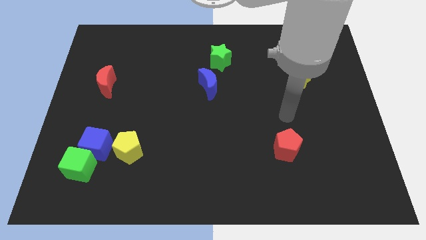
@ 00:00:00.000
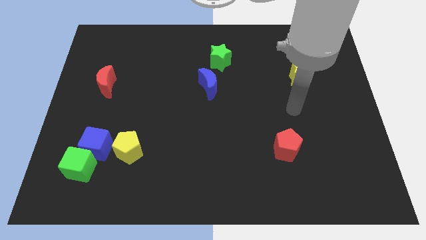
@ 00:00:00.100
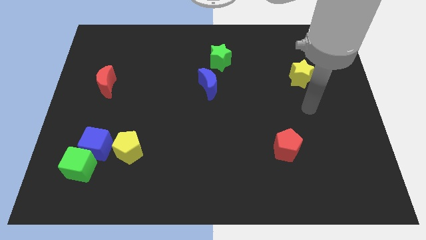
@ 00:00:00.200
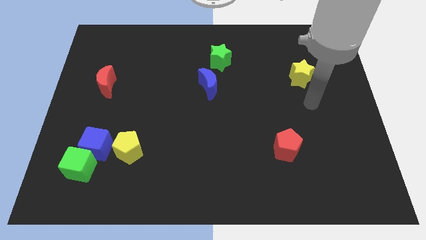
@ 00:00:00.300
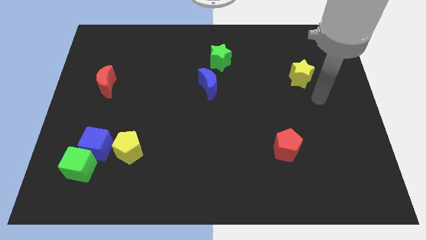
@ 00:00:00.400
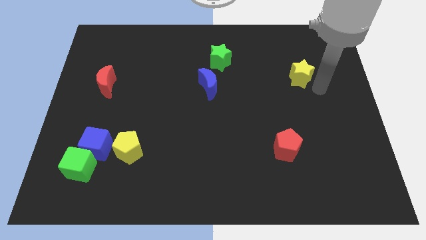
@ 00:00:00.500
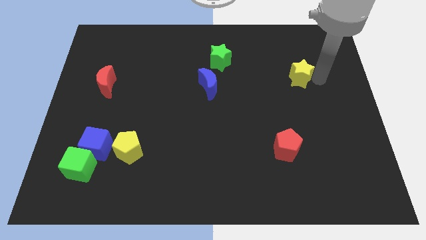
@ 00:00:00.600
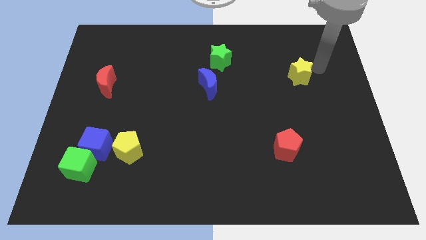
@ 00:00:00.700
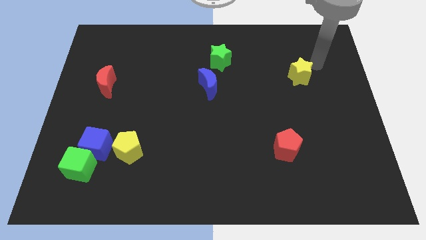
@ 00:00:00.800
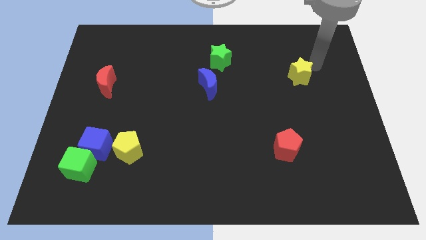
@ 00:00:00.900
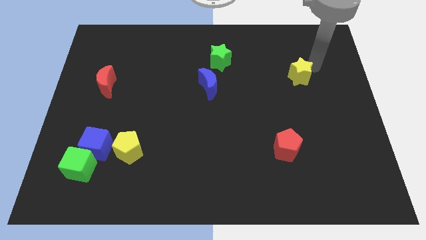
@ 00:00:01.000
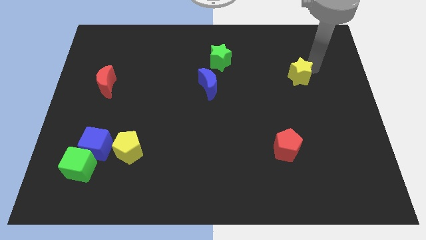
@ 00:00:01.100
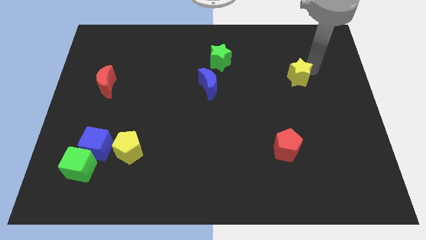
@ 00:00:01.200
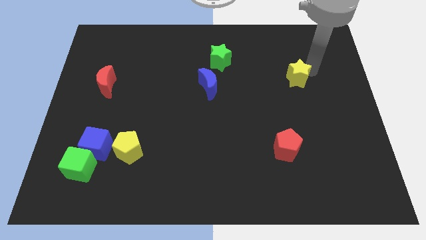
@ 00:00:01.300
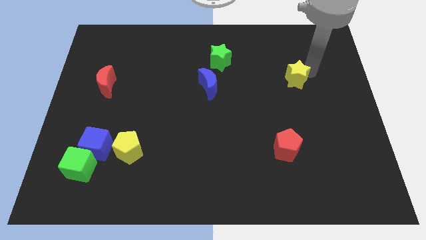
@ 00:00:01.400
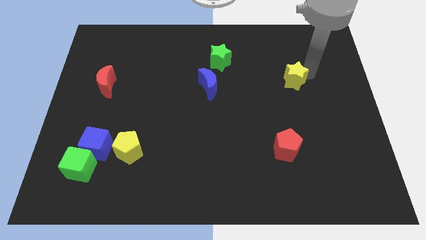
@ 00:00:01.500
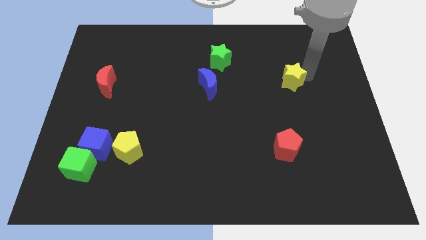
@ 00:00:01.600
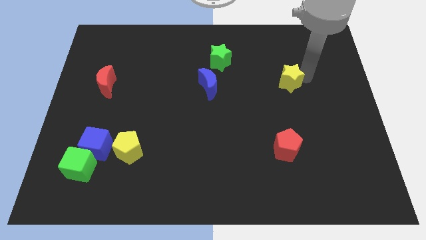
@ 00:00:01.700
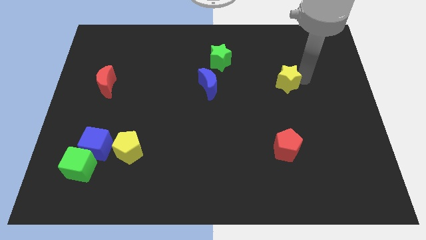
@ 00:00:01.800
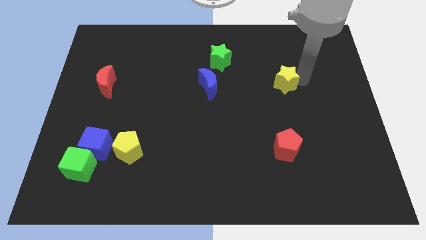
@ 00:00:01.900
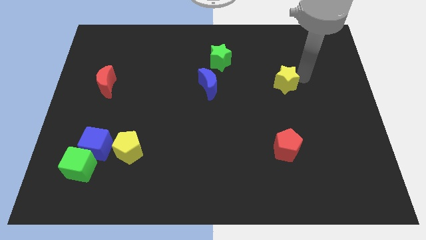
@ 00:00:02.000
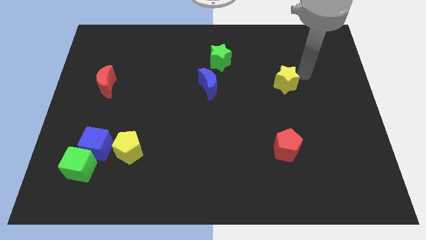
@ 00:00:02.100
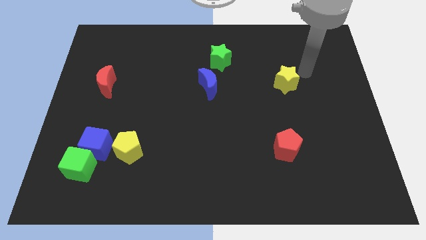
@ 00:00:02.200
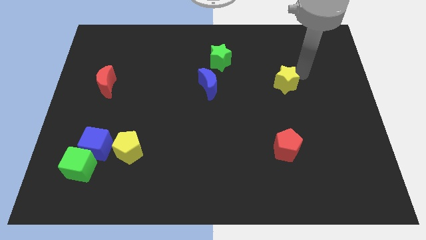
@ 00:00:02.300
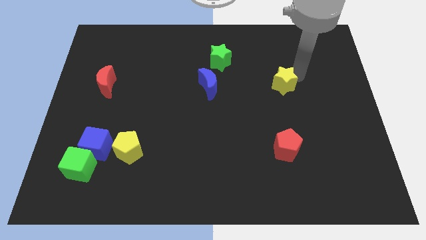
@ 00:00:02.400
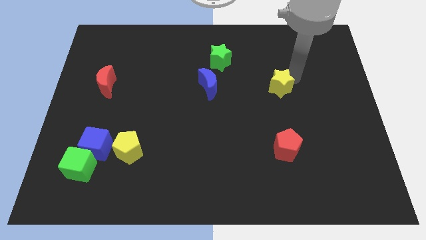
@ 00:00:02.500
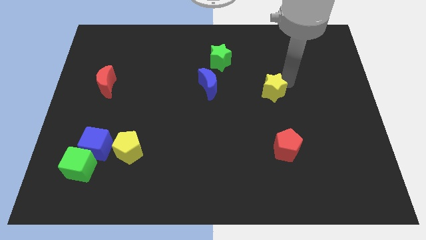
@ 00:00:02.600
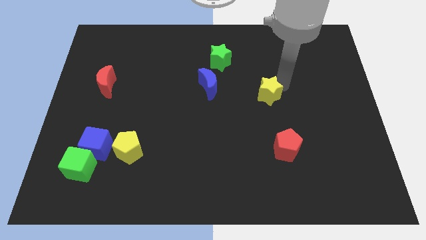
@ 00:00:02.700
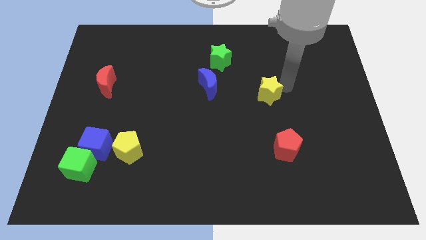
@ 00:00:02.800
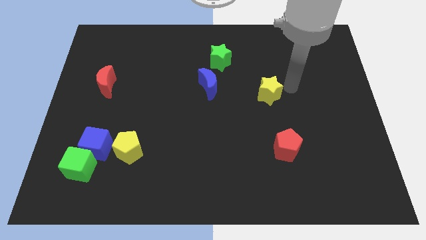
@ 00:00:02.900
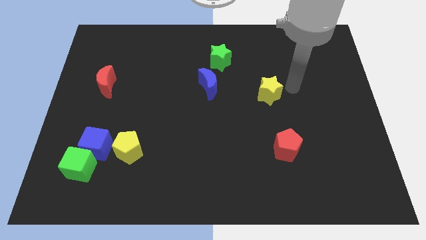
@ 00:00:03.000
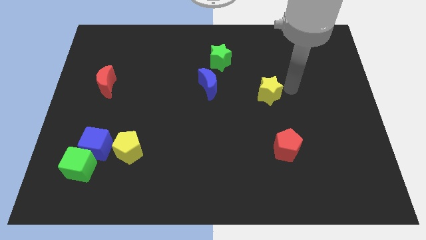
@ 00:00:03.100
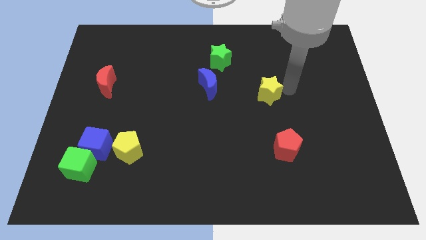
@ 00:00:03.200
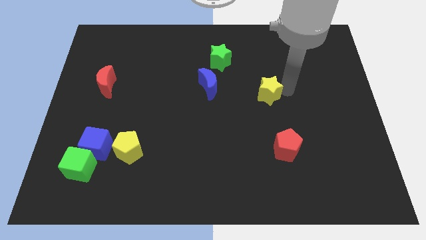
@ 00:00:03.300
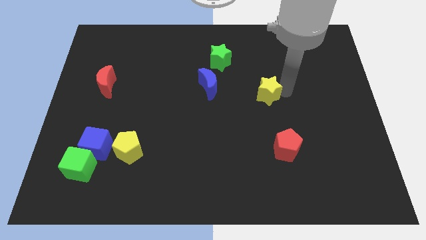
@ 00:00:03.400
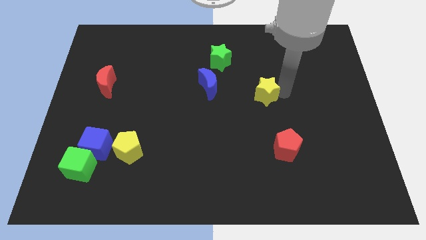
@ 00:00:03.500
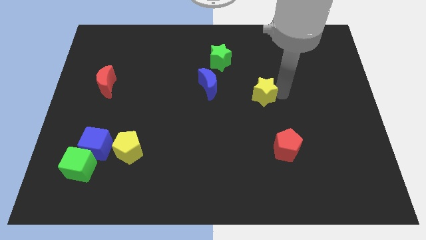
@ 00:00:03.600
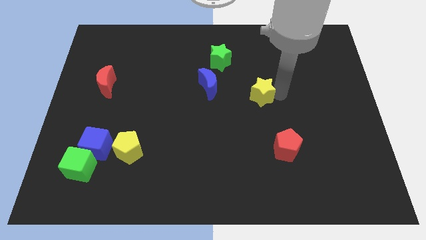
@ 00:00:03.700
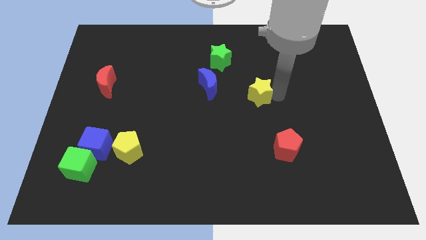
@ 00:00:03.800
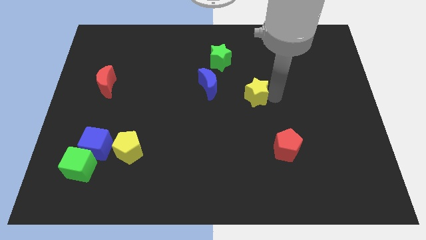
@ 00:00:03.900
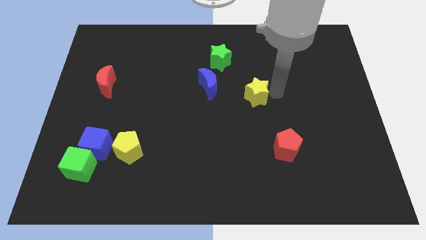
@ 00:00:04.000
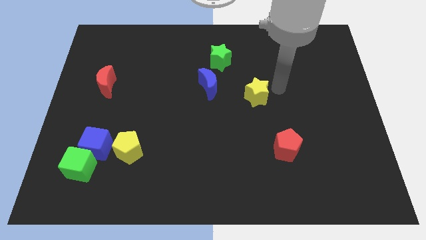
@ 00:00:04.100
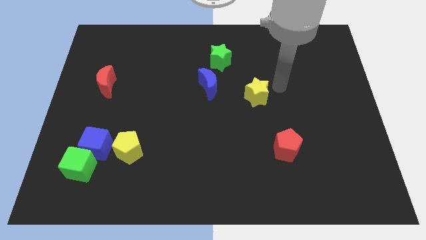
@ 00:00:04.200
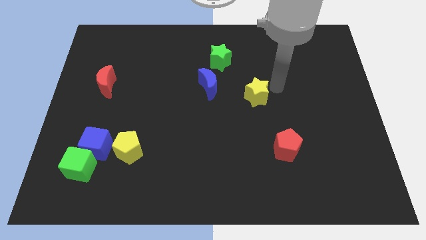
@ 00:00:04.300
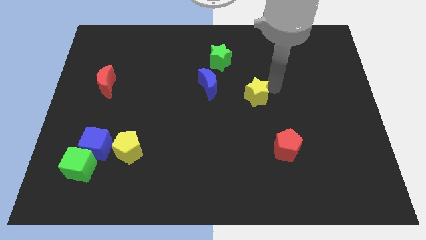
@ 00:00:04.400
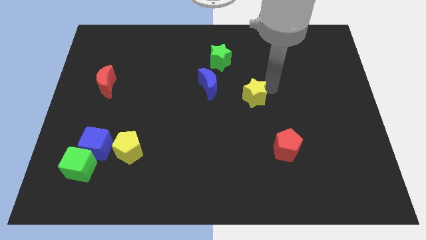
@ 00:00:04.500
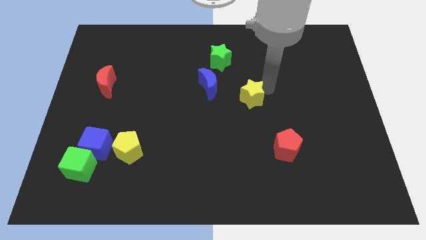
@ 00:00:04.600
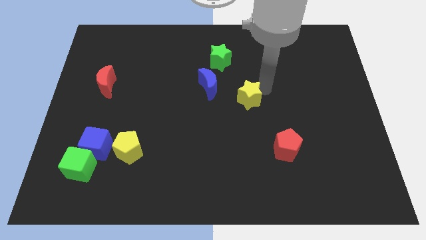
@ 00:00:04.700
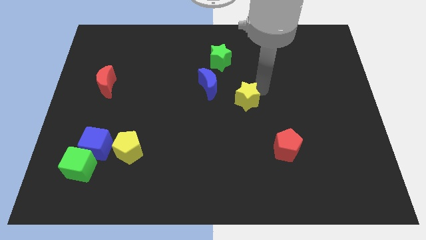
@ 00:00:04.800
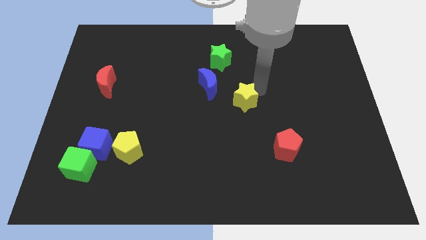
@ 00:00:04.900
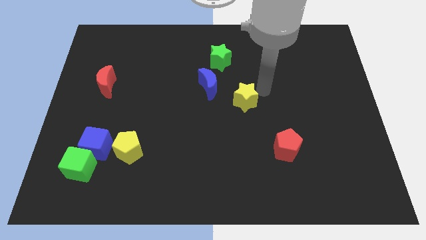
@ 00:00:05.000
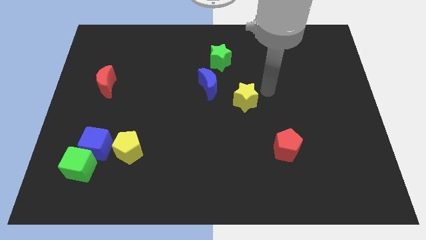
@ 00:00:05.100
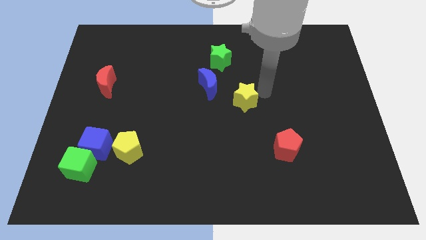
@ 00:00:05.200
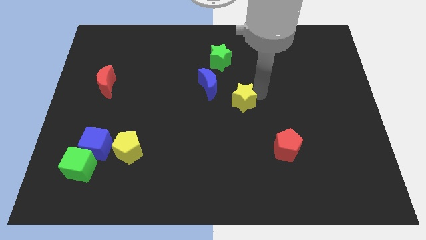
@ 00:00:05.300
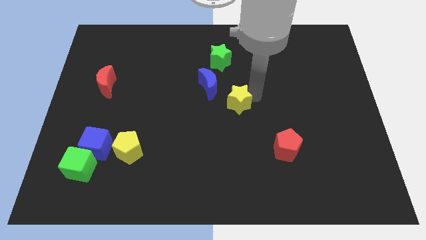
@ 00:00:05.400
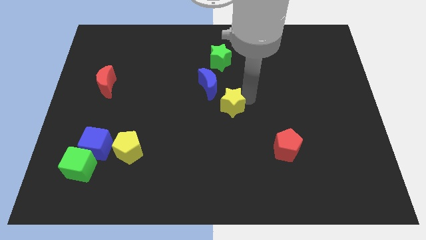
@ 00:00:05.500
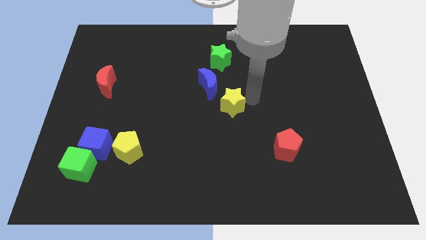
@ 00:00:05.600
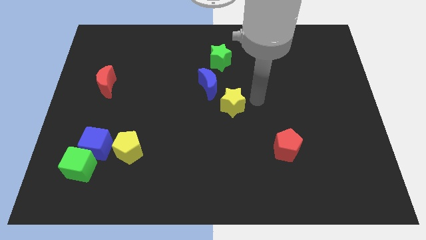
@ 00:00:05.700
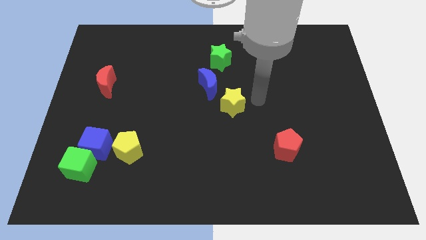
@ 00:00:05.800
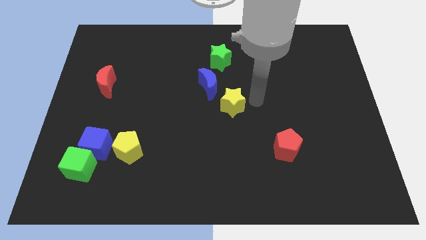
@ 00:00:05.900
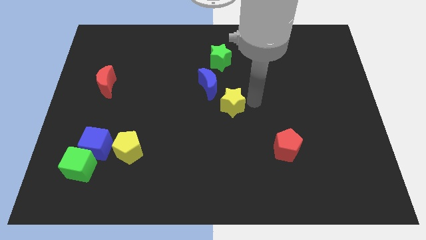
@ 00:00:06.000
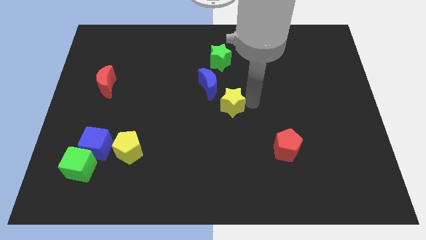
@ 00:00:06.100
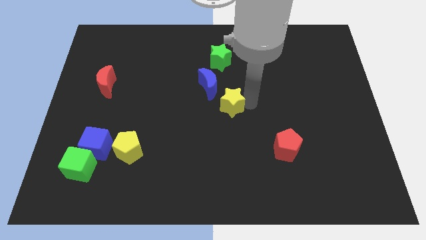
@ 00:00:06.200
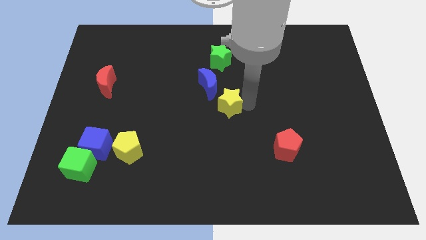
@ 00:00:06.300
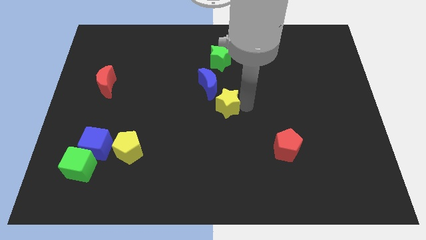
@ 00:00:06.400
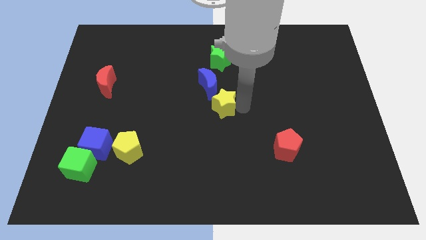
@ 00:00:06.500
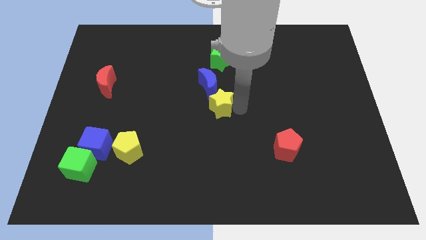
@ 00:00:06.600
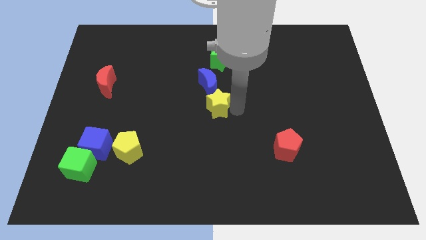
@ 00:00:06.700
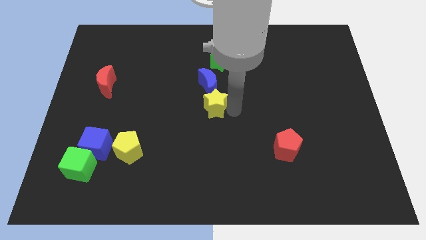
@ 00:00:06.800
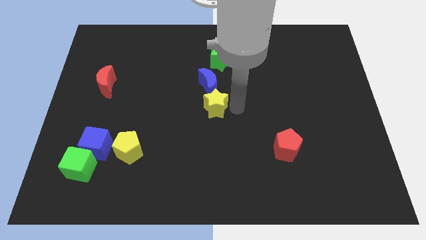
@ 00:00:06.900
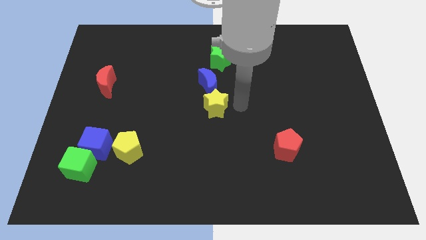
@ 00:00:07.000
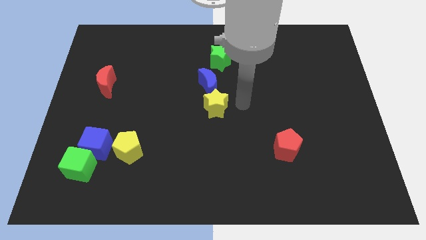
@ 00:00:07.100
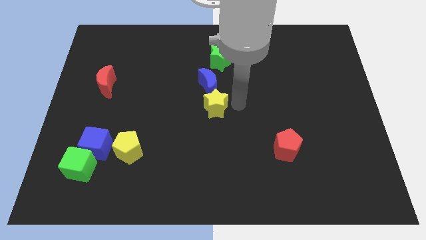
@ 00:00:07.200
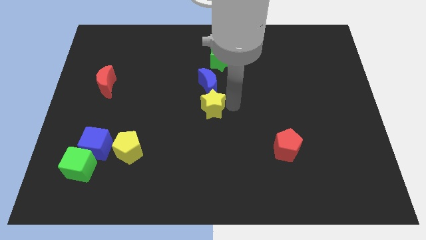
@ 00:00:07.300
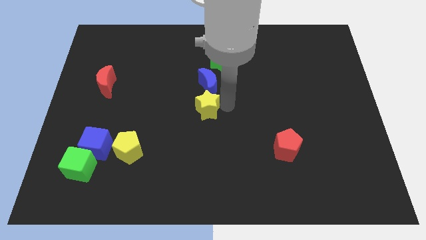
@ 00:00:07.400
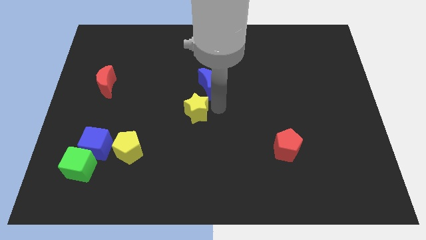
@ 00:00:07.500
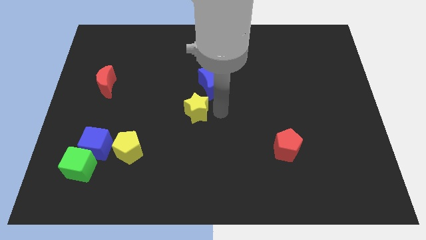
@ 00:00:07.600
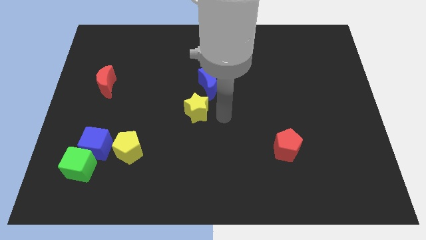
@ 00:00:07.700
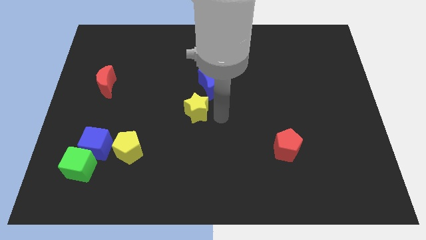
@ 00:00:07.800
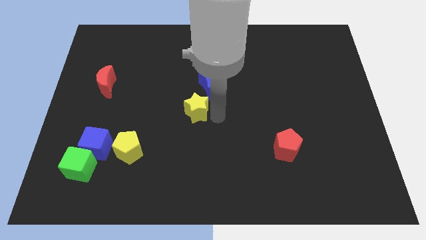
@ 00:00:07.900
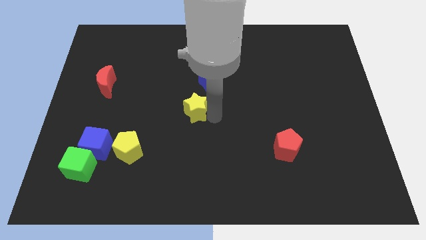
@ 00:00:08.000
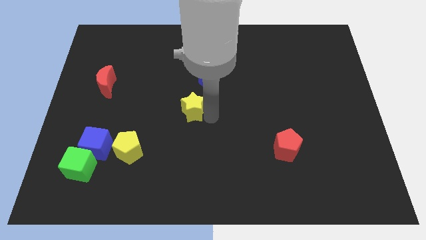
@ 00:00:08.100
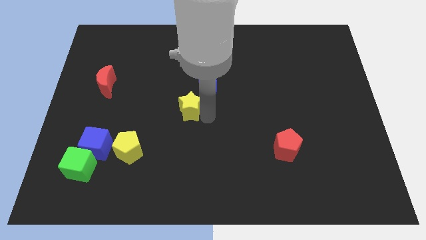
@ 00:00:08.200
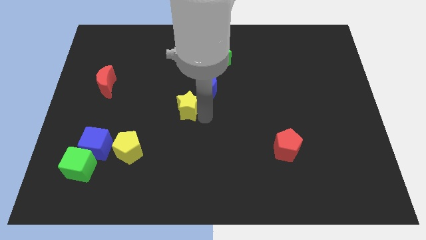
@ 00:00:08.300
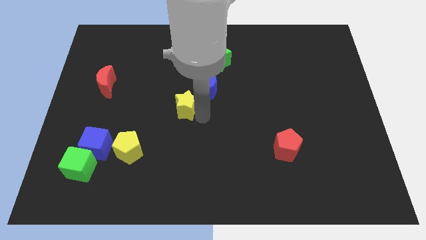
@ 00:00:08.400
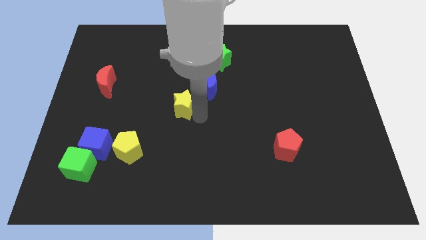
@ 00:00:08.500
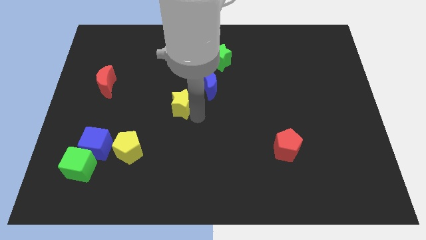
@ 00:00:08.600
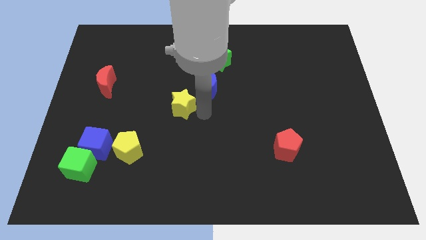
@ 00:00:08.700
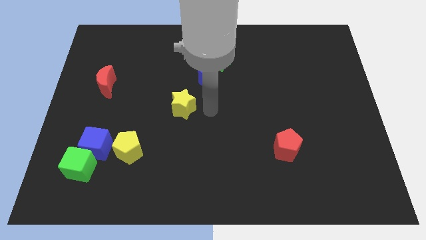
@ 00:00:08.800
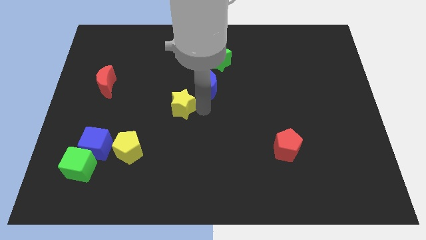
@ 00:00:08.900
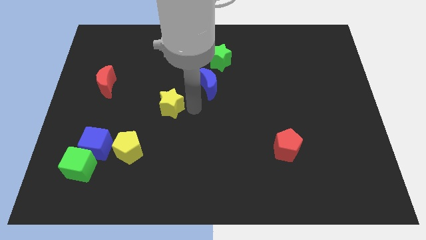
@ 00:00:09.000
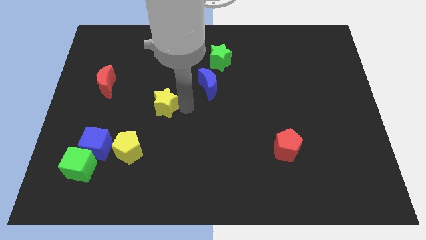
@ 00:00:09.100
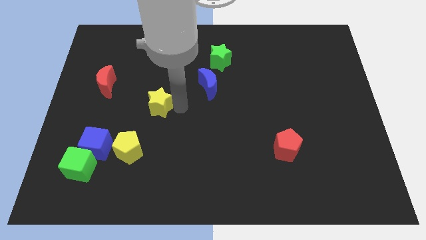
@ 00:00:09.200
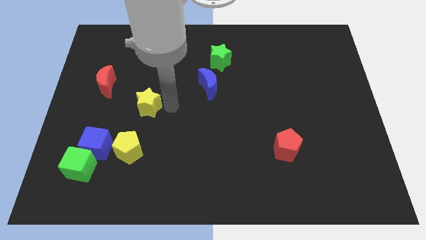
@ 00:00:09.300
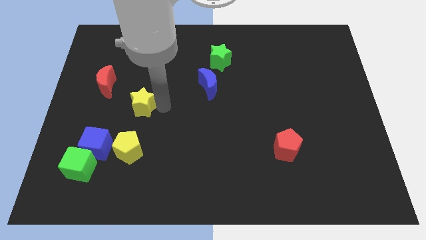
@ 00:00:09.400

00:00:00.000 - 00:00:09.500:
push the yellow star diagonally down and to the right of the red moon
